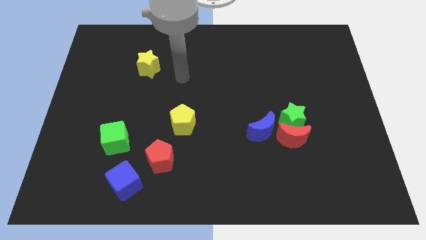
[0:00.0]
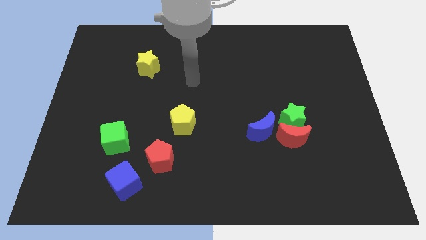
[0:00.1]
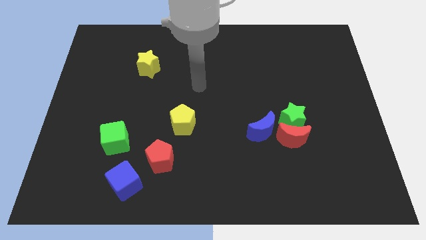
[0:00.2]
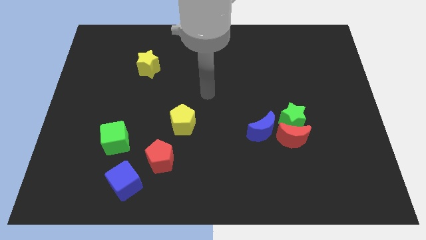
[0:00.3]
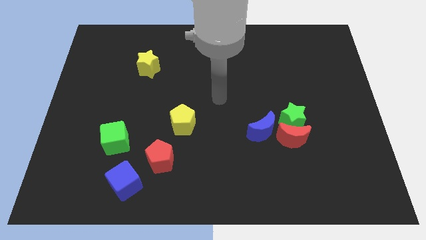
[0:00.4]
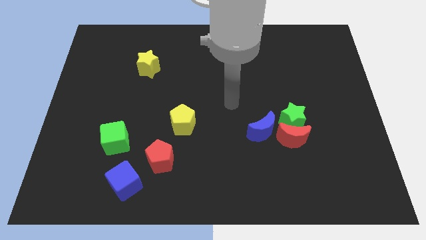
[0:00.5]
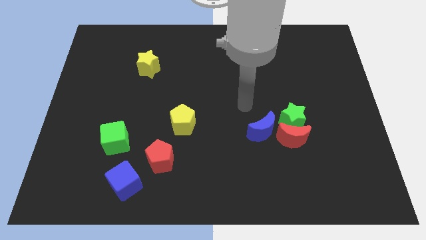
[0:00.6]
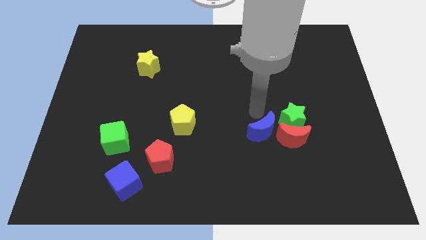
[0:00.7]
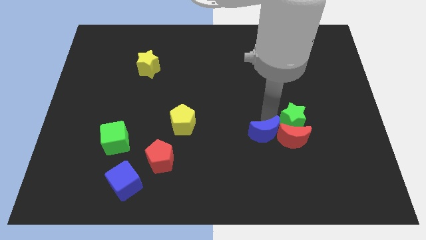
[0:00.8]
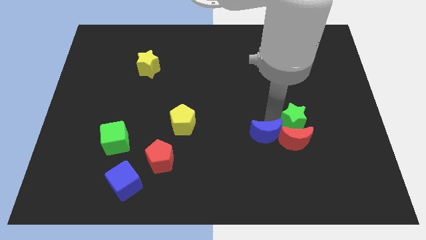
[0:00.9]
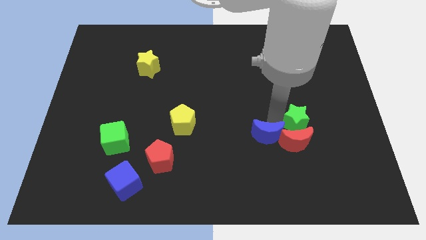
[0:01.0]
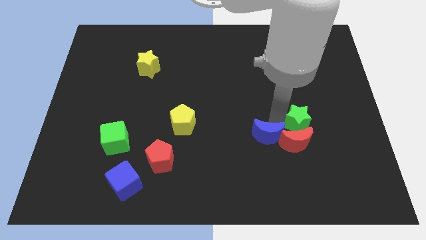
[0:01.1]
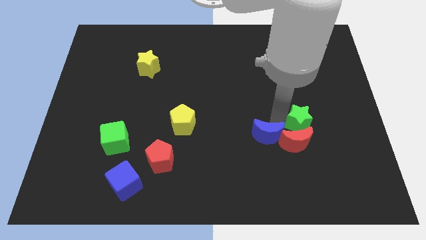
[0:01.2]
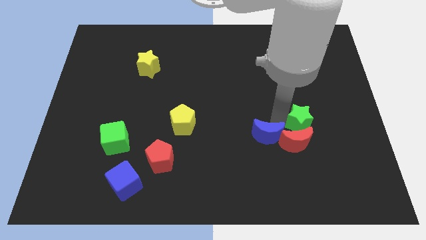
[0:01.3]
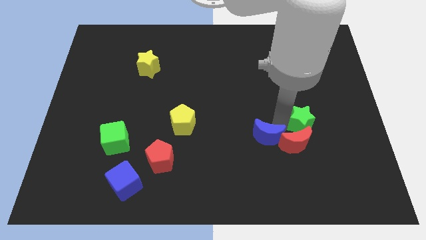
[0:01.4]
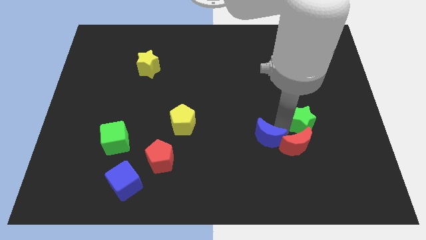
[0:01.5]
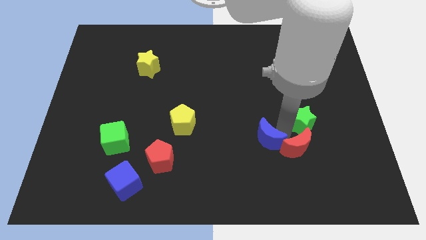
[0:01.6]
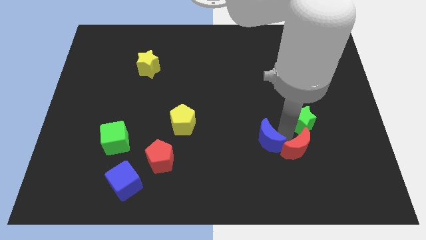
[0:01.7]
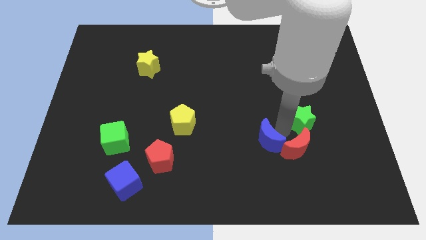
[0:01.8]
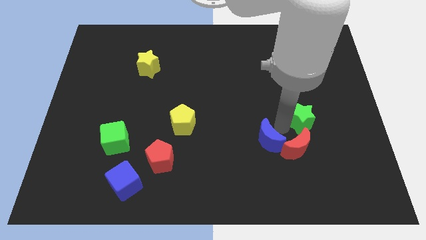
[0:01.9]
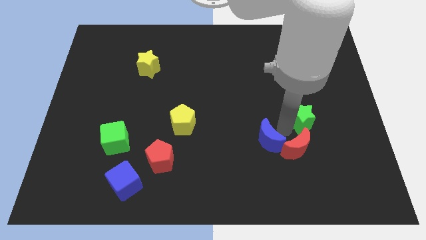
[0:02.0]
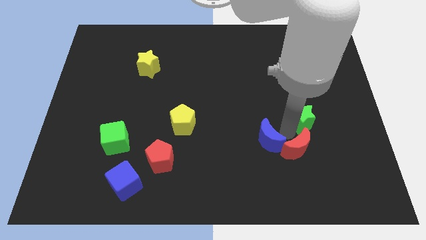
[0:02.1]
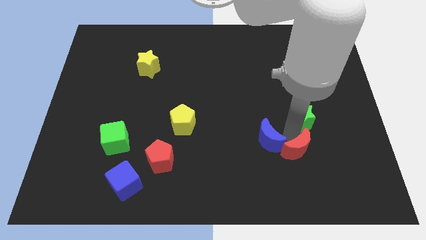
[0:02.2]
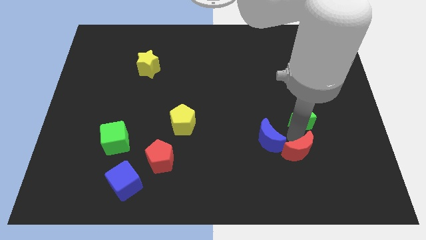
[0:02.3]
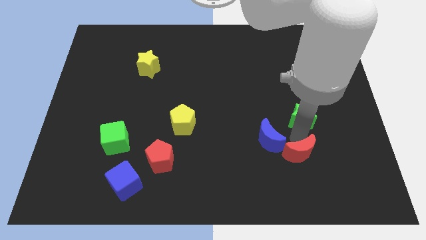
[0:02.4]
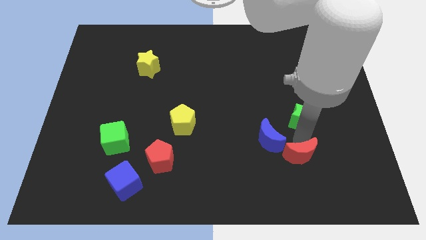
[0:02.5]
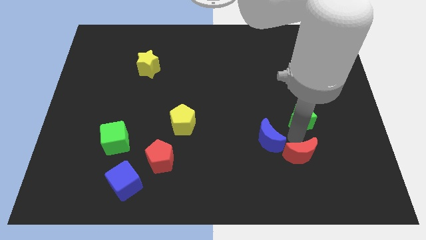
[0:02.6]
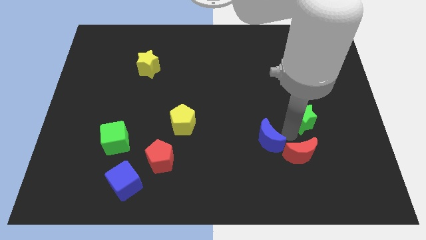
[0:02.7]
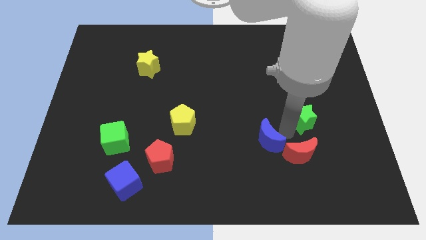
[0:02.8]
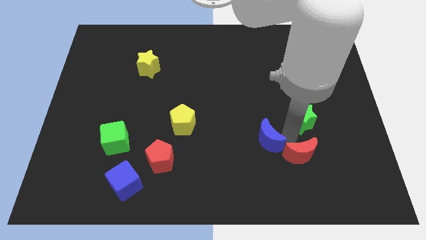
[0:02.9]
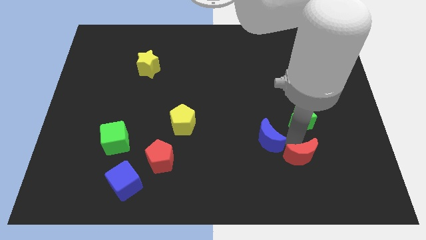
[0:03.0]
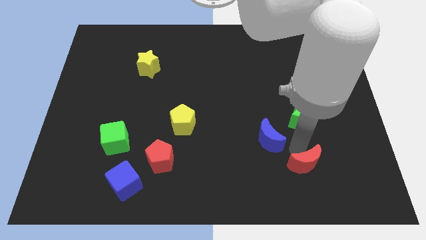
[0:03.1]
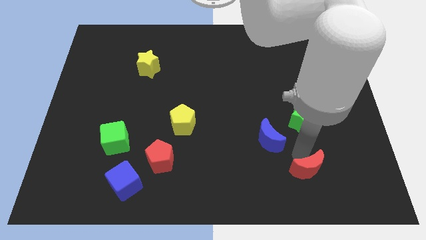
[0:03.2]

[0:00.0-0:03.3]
pull the red moon apart from the green star and blue moon

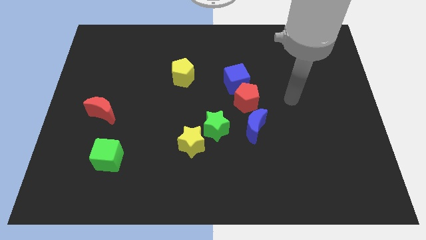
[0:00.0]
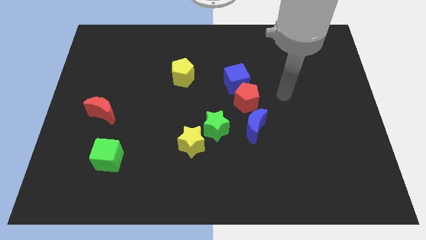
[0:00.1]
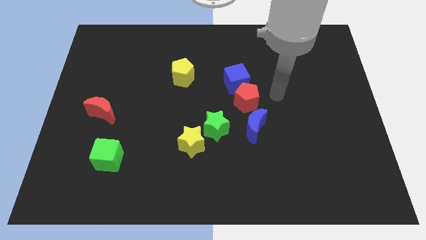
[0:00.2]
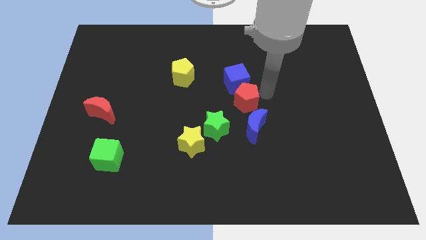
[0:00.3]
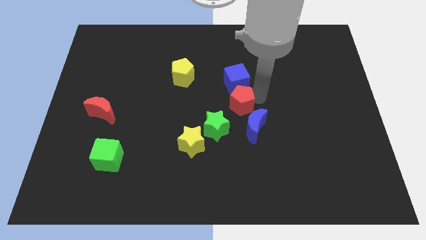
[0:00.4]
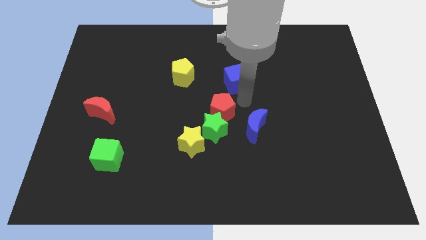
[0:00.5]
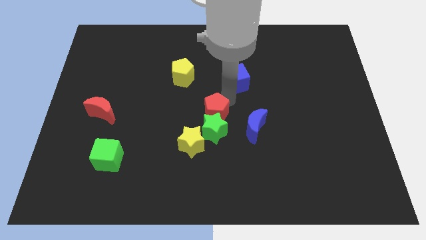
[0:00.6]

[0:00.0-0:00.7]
move the blue cube away from the red pentagon

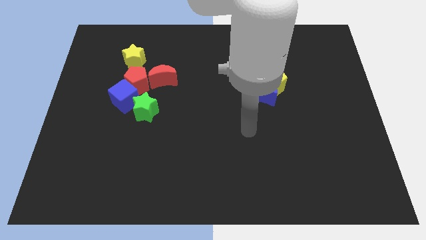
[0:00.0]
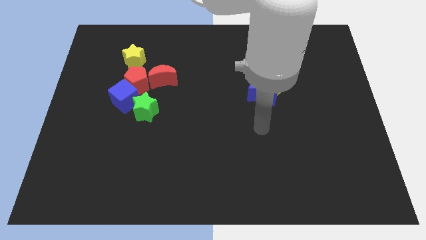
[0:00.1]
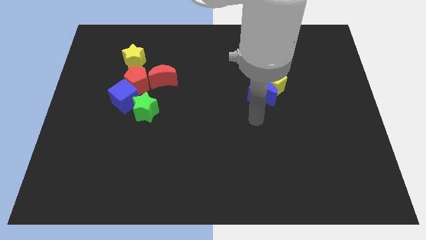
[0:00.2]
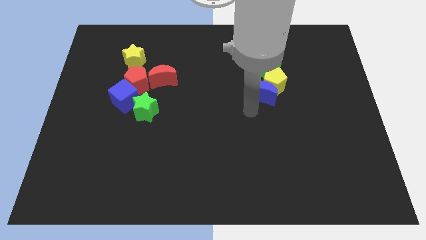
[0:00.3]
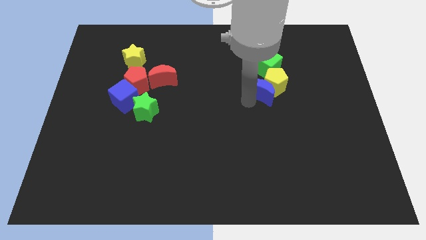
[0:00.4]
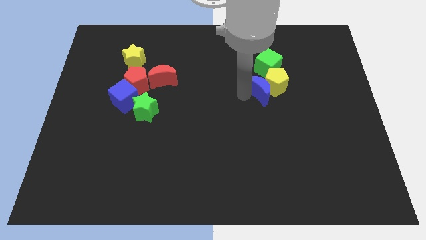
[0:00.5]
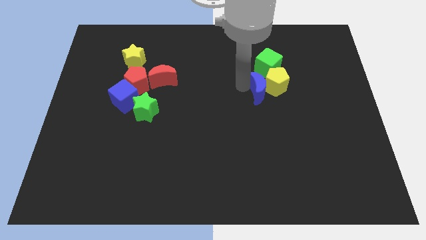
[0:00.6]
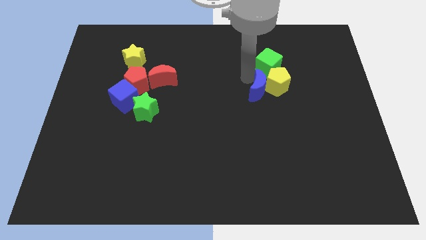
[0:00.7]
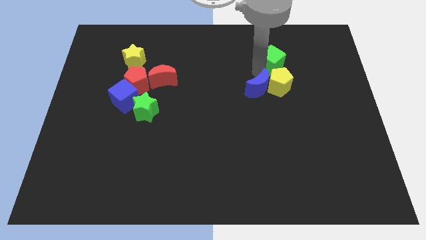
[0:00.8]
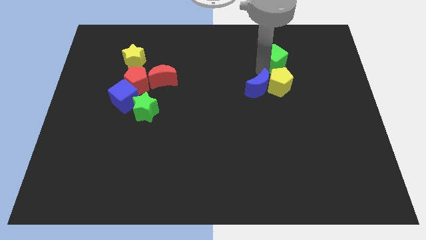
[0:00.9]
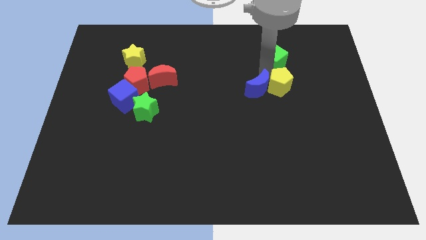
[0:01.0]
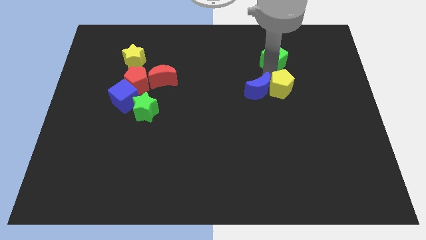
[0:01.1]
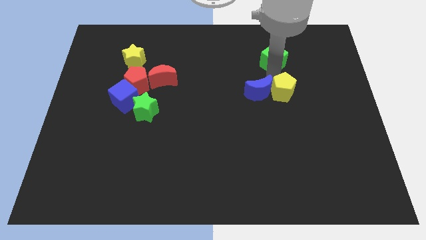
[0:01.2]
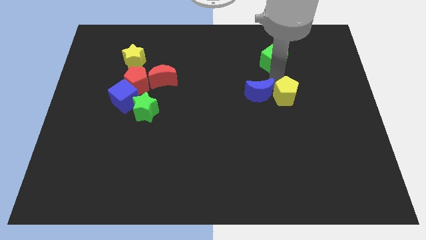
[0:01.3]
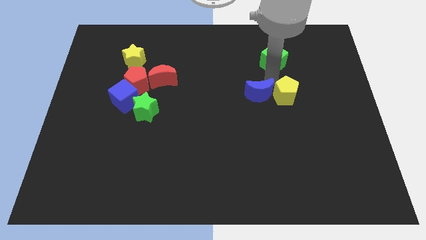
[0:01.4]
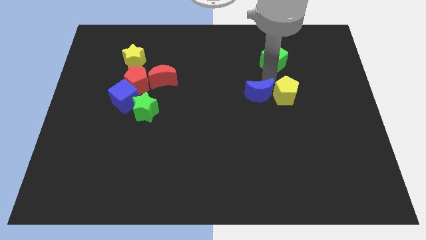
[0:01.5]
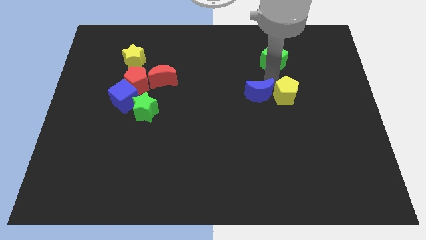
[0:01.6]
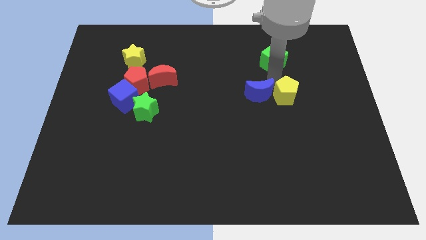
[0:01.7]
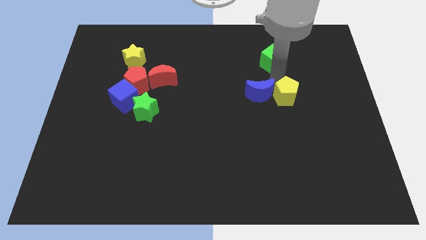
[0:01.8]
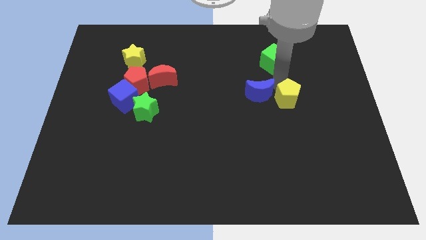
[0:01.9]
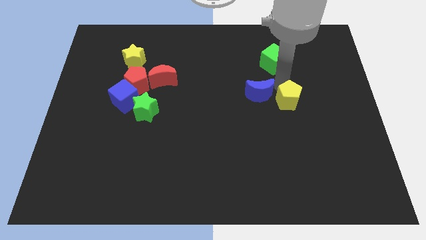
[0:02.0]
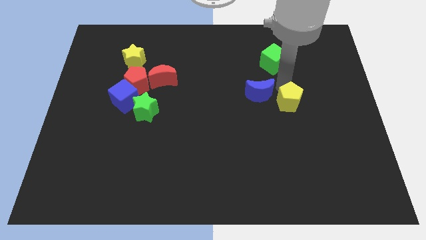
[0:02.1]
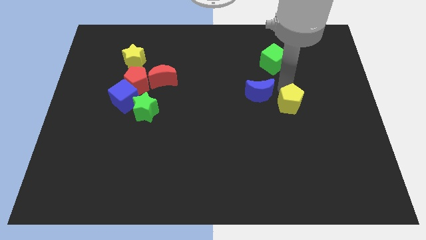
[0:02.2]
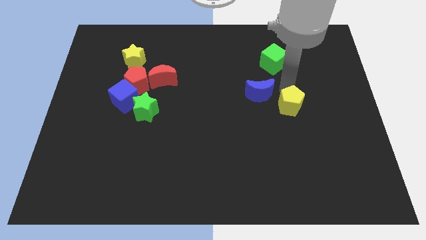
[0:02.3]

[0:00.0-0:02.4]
separate the yellow pentagon from the blue moon and green cube

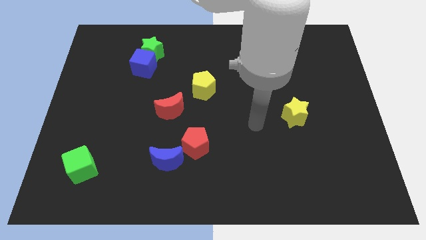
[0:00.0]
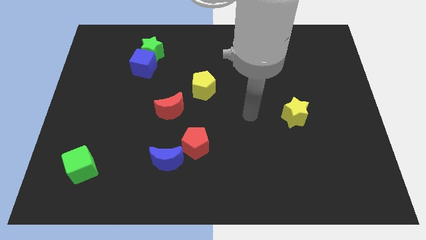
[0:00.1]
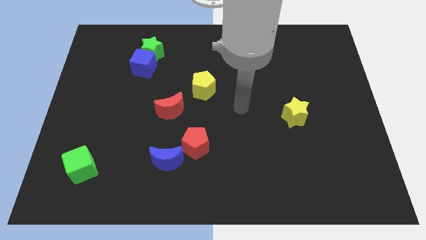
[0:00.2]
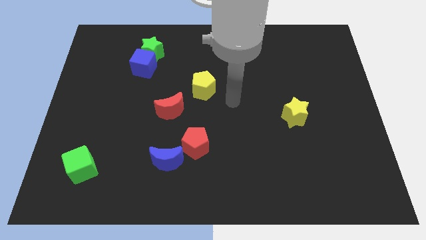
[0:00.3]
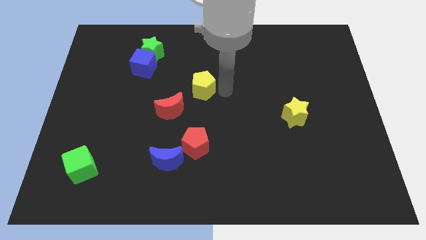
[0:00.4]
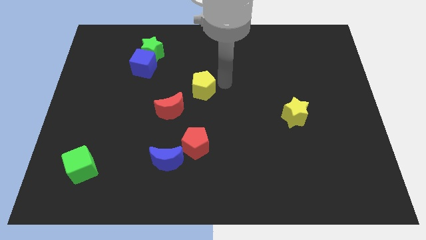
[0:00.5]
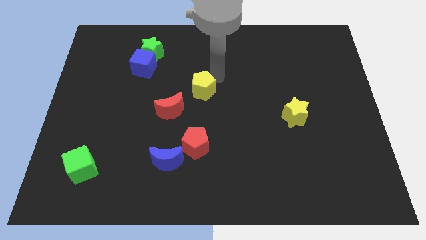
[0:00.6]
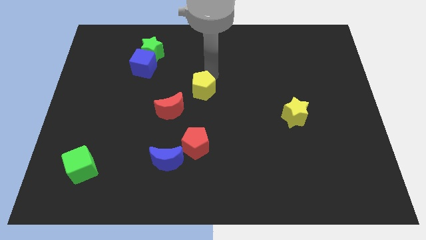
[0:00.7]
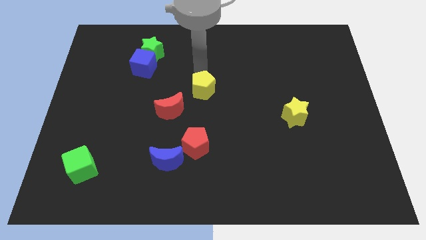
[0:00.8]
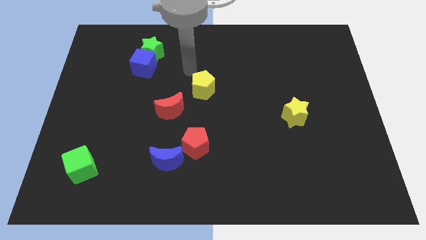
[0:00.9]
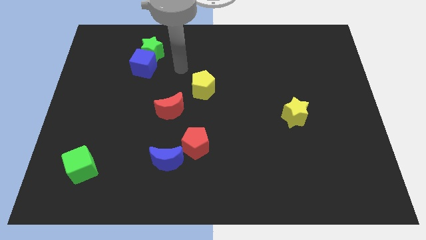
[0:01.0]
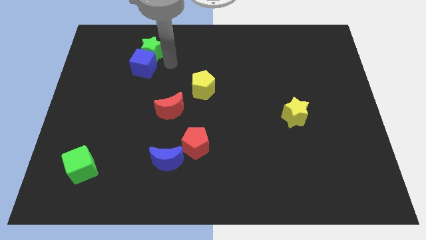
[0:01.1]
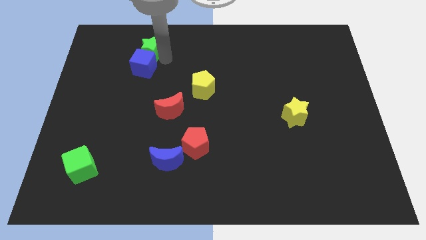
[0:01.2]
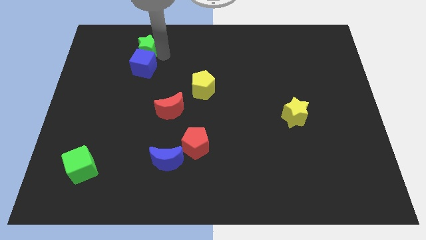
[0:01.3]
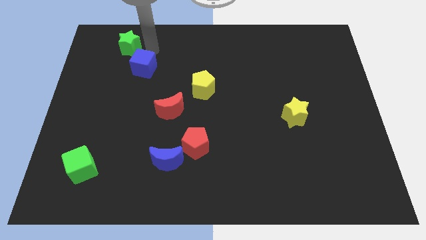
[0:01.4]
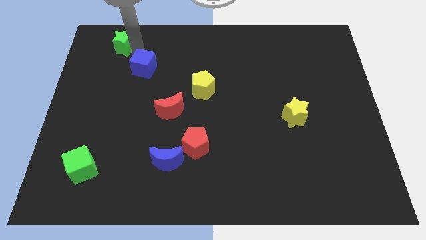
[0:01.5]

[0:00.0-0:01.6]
move the blue cube away from the green star

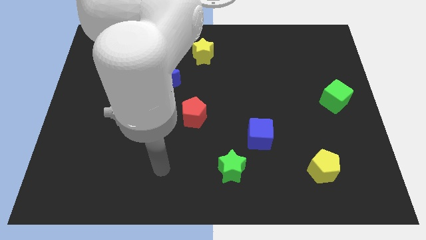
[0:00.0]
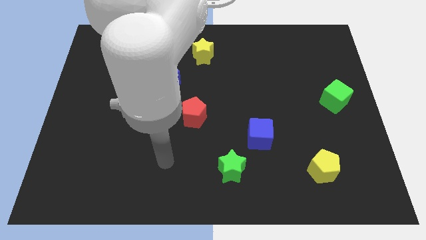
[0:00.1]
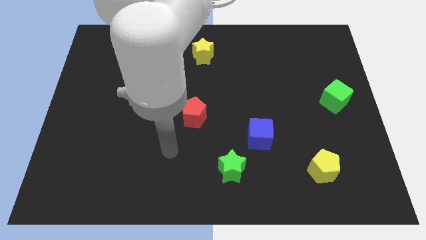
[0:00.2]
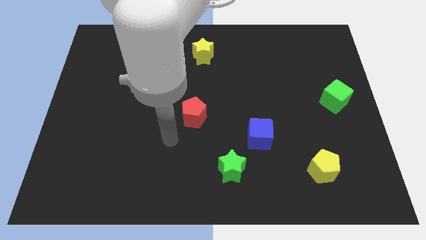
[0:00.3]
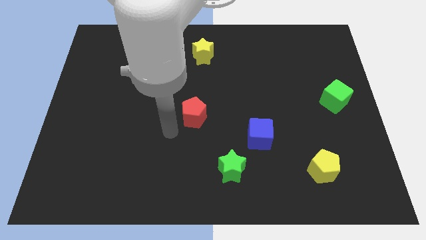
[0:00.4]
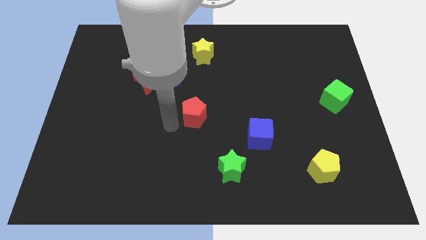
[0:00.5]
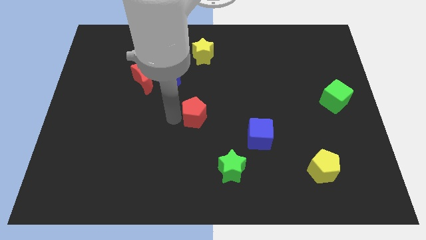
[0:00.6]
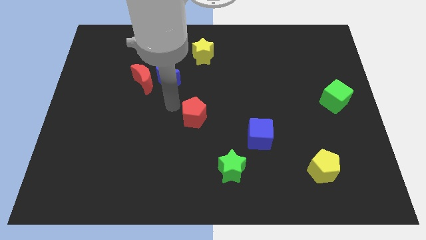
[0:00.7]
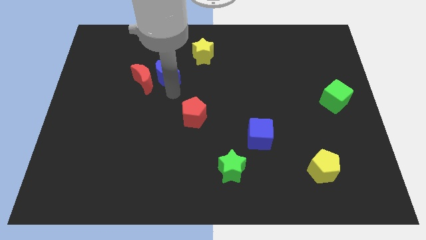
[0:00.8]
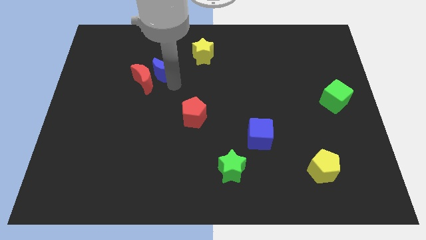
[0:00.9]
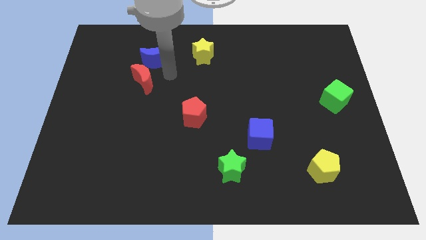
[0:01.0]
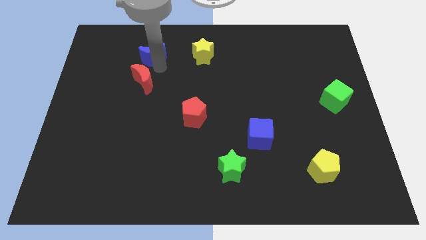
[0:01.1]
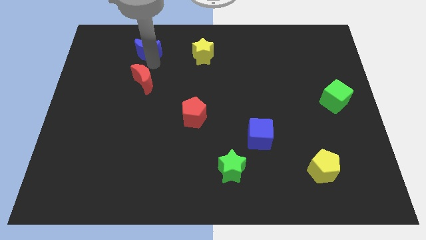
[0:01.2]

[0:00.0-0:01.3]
pull the red moon apart from the blue moon
